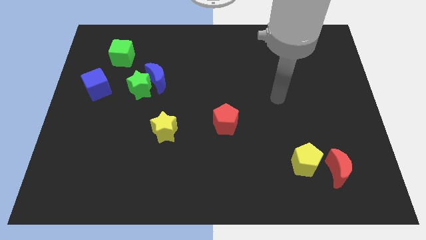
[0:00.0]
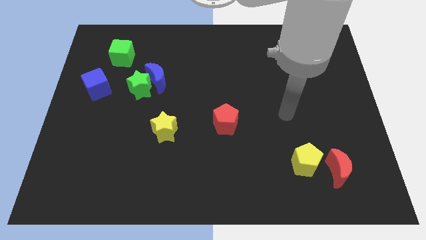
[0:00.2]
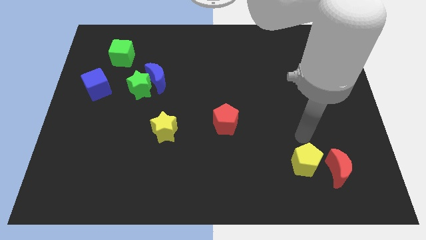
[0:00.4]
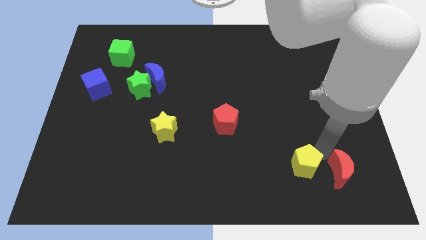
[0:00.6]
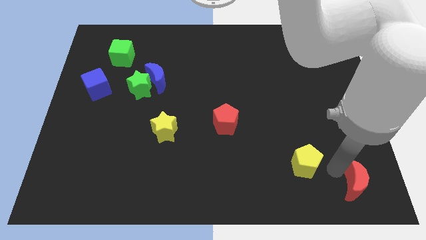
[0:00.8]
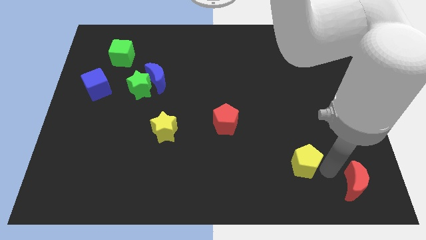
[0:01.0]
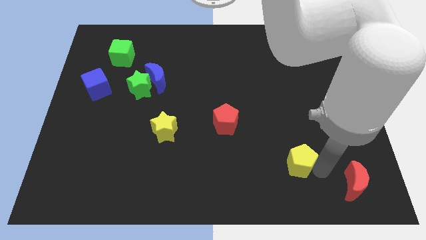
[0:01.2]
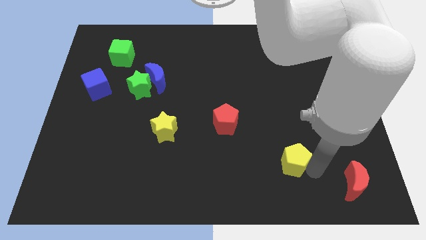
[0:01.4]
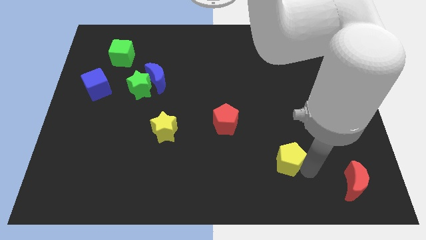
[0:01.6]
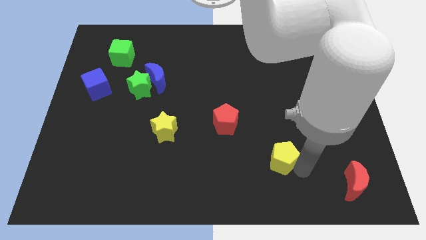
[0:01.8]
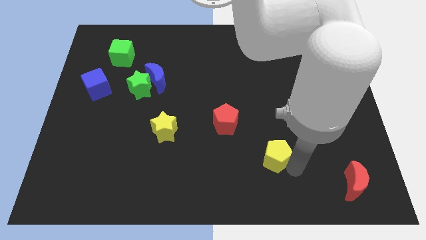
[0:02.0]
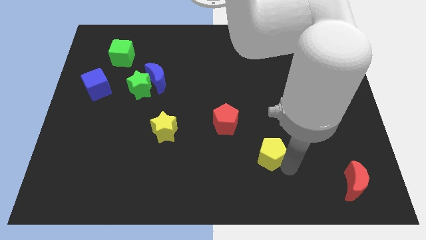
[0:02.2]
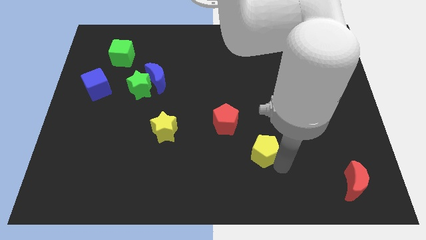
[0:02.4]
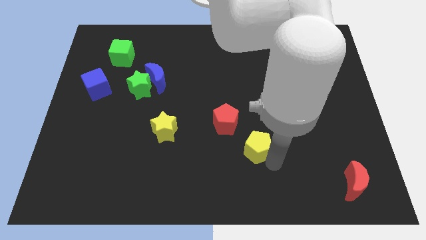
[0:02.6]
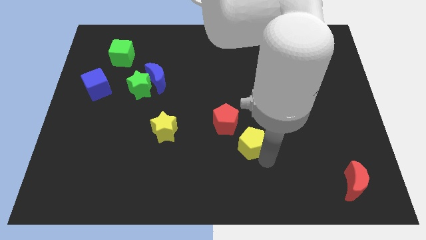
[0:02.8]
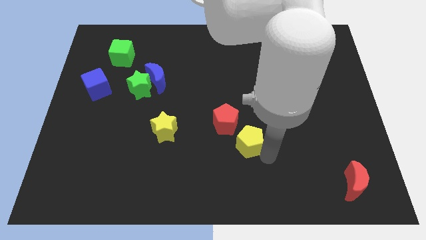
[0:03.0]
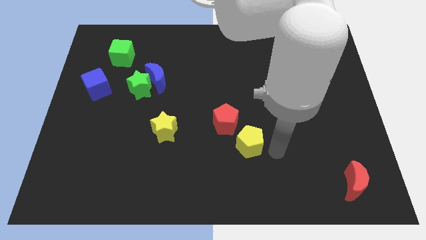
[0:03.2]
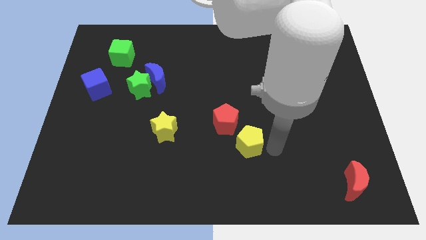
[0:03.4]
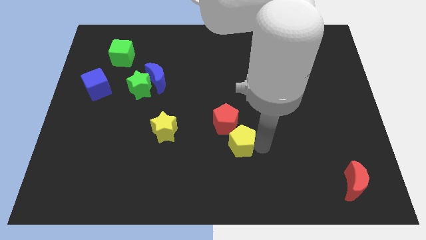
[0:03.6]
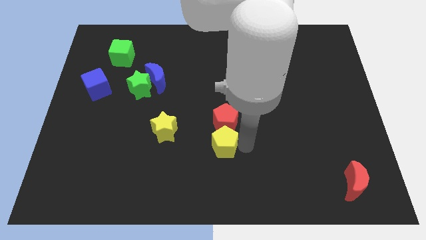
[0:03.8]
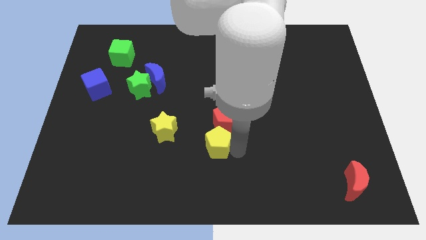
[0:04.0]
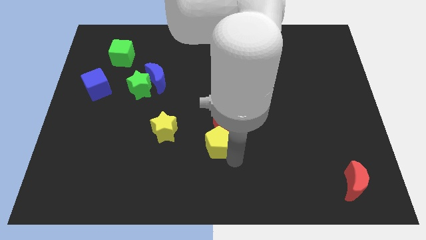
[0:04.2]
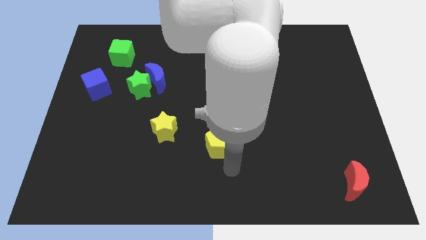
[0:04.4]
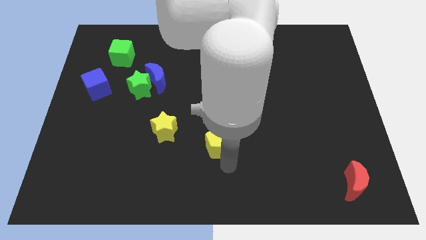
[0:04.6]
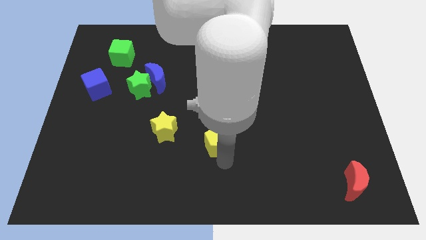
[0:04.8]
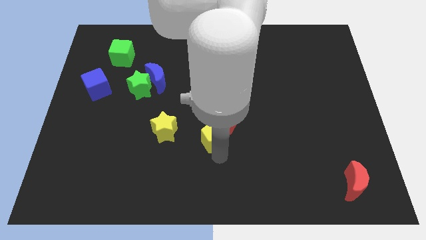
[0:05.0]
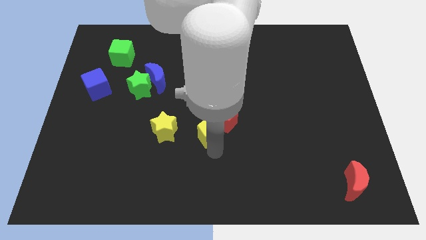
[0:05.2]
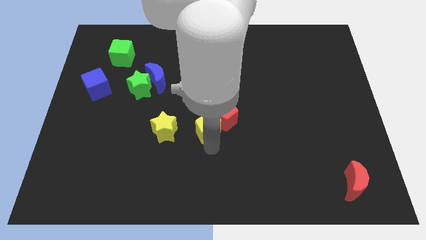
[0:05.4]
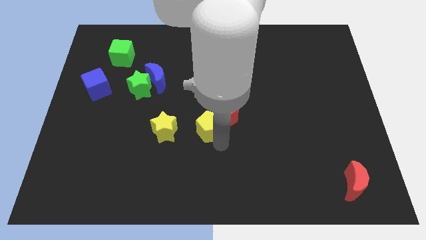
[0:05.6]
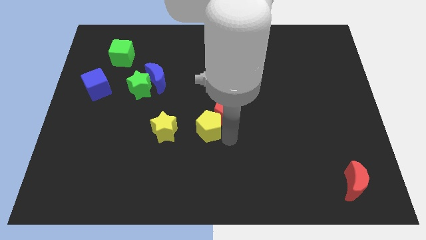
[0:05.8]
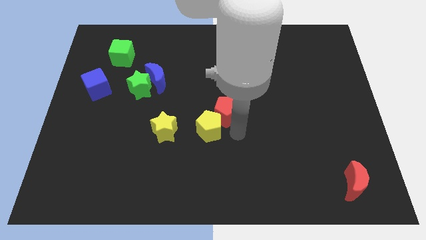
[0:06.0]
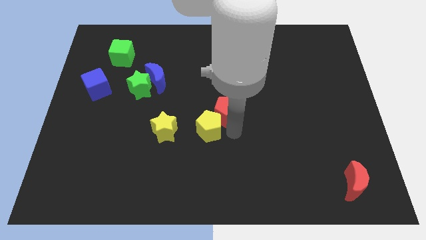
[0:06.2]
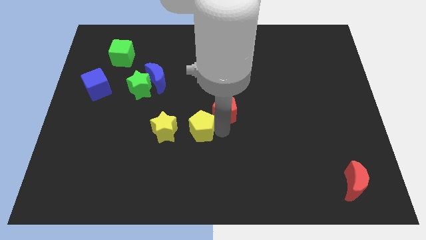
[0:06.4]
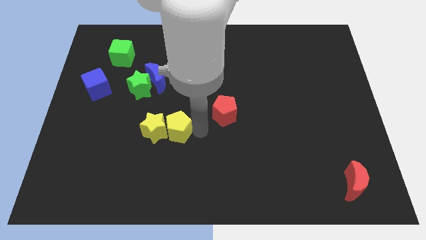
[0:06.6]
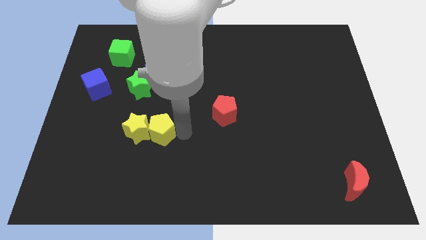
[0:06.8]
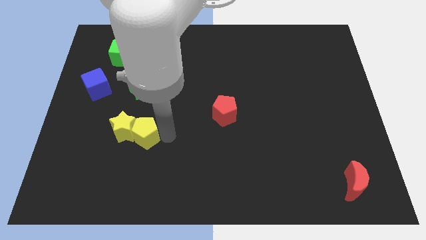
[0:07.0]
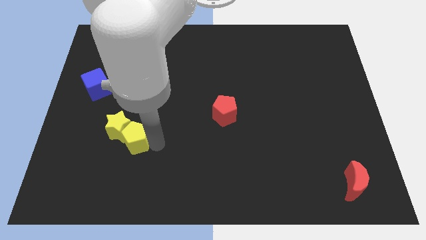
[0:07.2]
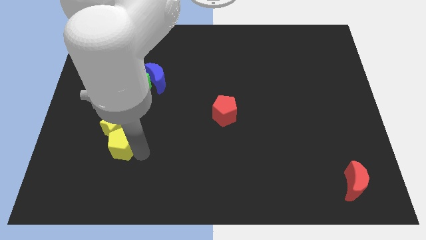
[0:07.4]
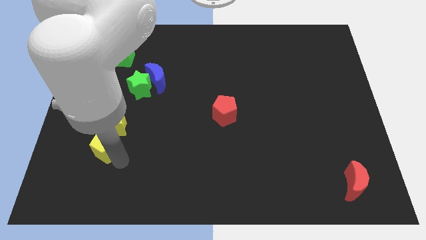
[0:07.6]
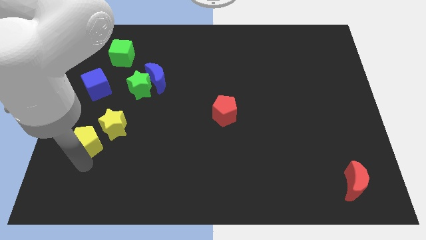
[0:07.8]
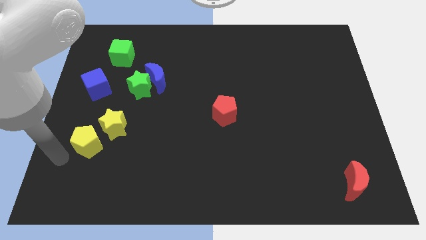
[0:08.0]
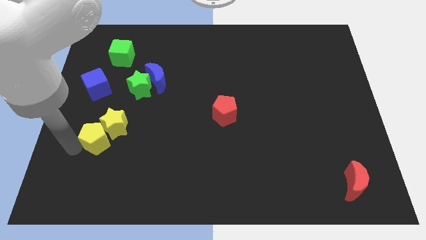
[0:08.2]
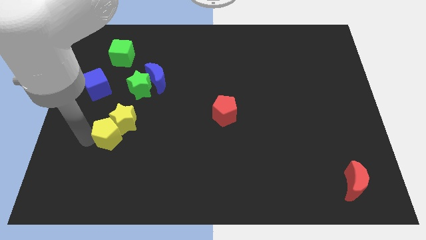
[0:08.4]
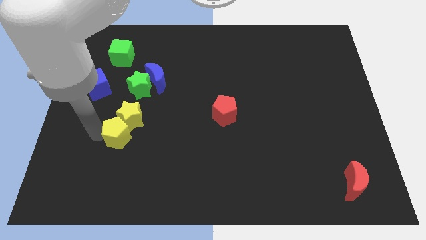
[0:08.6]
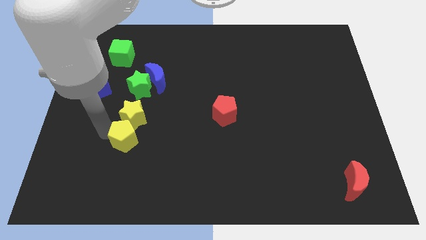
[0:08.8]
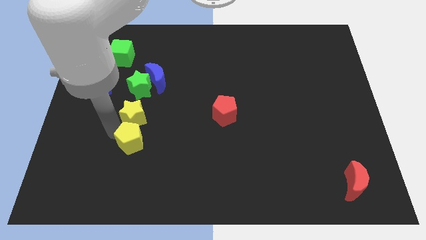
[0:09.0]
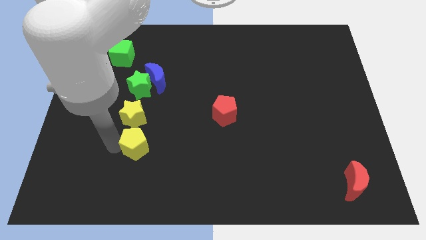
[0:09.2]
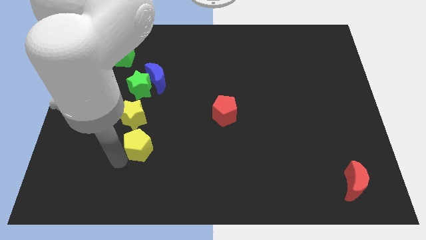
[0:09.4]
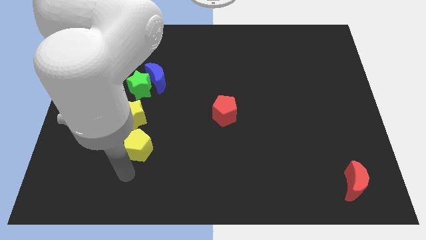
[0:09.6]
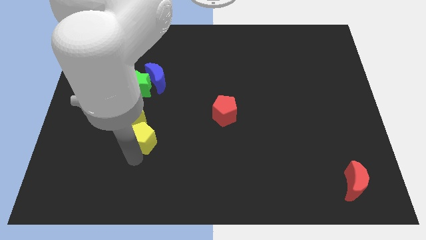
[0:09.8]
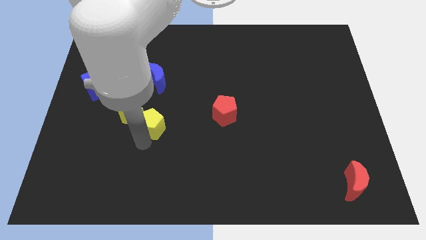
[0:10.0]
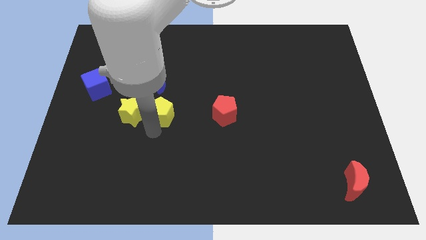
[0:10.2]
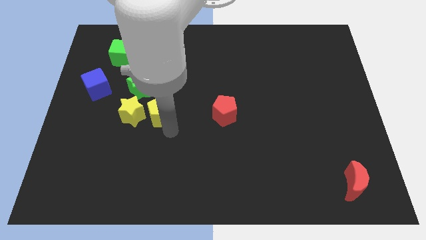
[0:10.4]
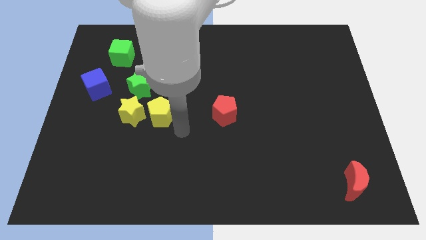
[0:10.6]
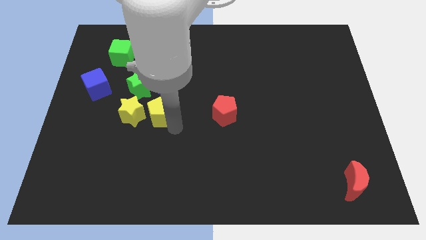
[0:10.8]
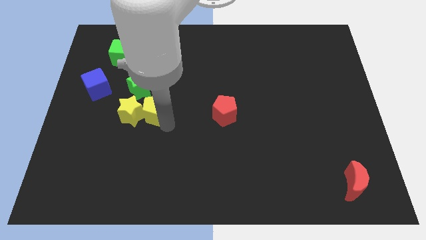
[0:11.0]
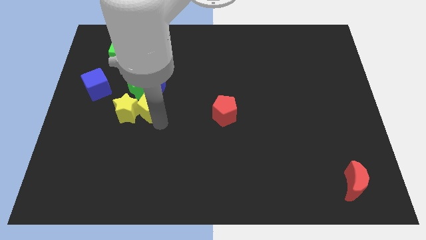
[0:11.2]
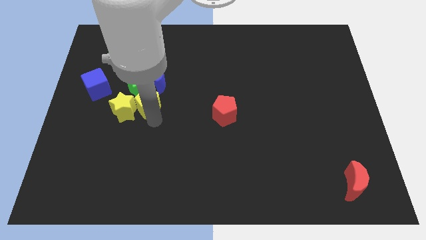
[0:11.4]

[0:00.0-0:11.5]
move the yellow pentagon to the bottom left of the blue moon

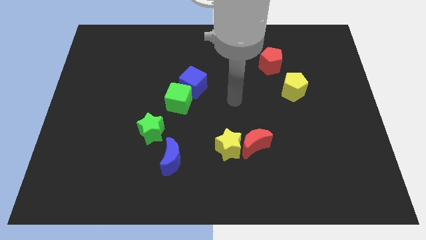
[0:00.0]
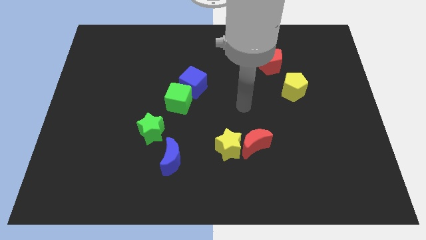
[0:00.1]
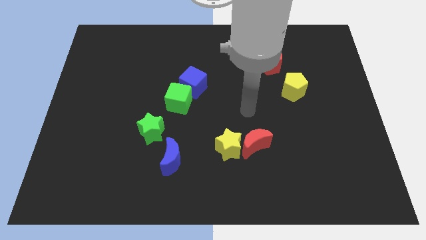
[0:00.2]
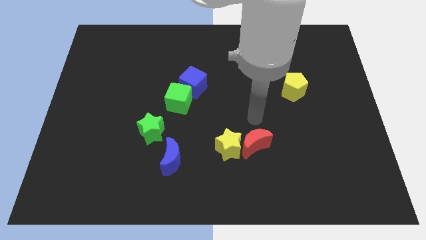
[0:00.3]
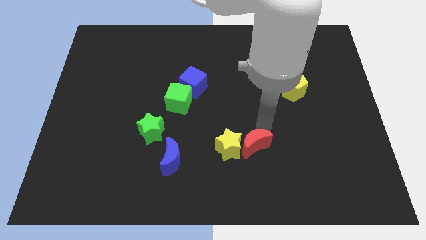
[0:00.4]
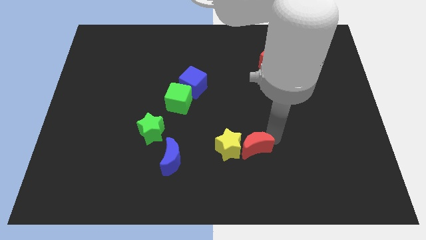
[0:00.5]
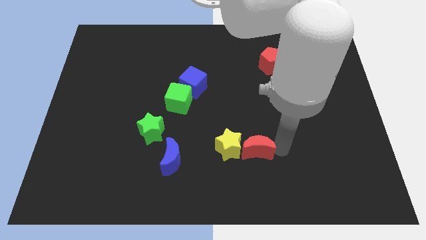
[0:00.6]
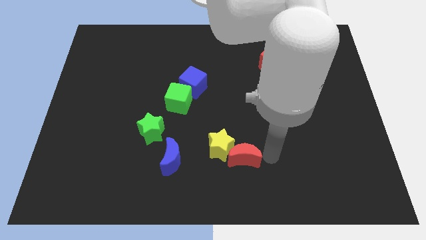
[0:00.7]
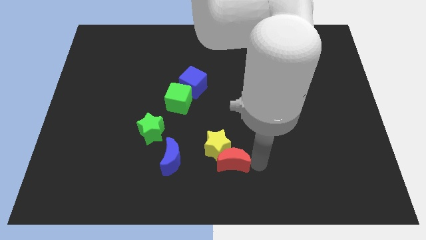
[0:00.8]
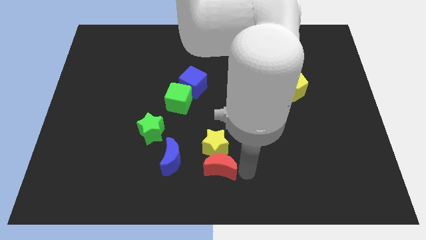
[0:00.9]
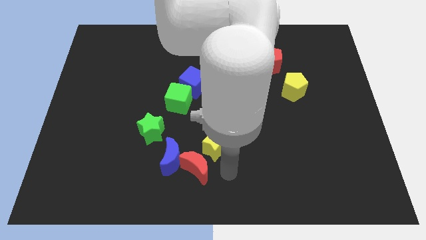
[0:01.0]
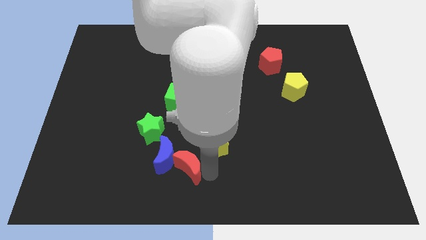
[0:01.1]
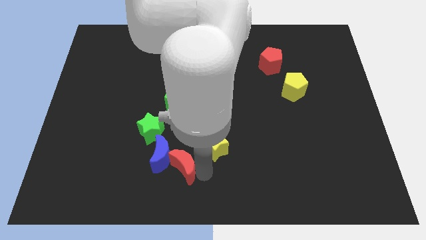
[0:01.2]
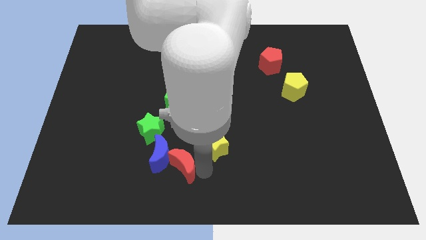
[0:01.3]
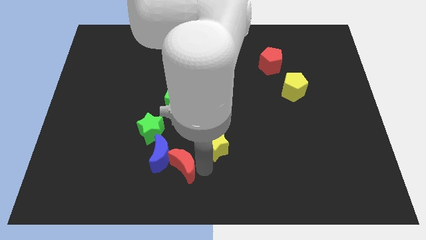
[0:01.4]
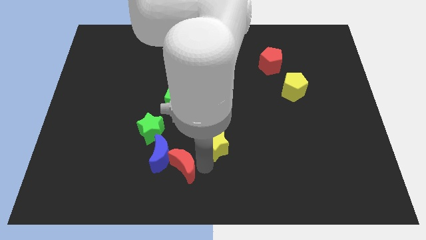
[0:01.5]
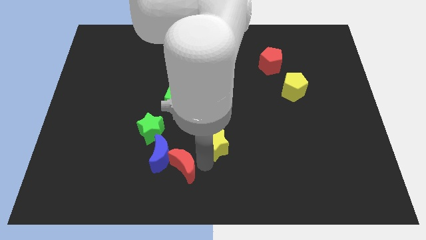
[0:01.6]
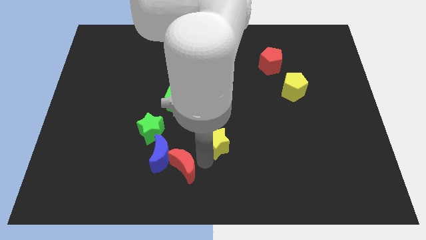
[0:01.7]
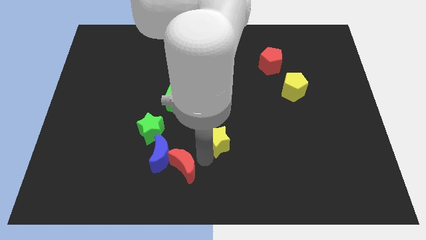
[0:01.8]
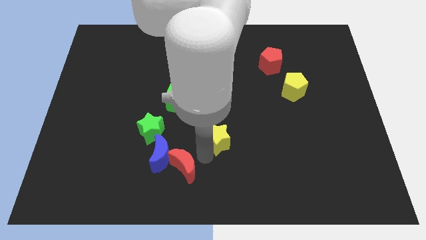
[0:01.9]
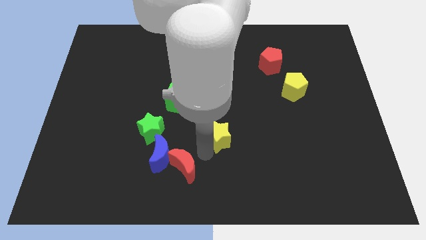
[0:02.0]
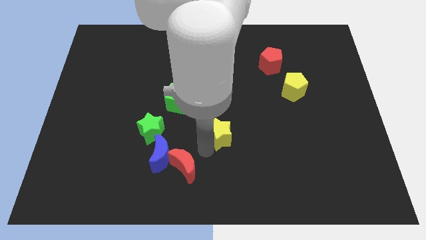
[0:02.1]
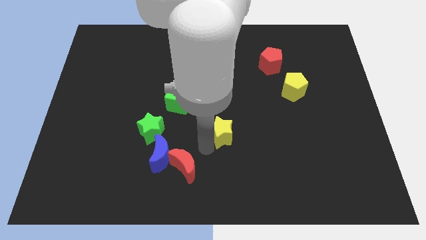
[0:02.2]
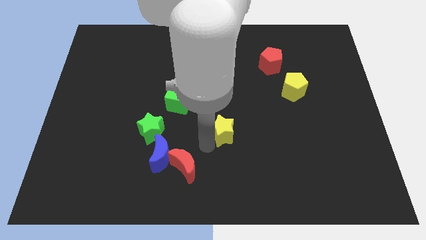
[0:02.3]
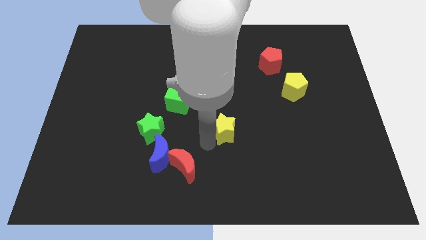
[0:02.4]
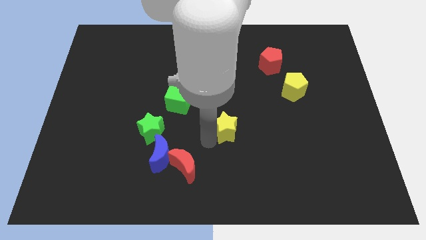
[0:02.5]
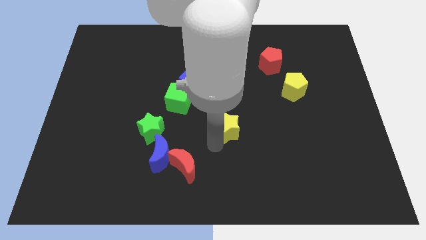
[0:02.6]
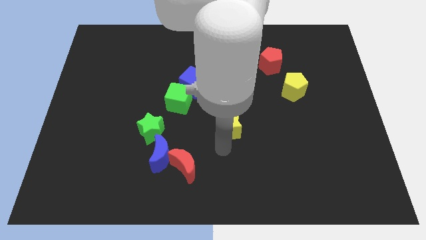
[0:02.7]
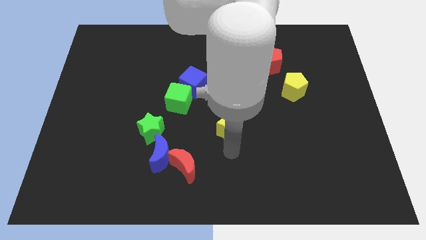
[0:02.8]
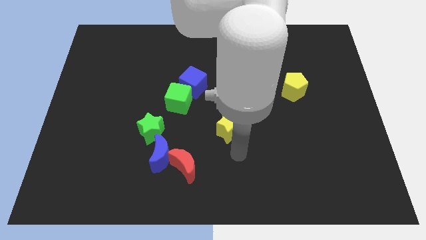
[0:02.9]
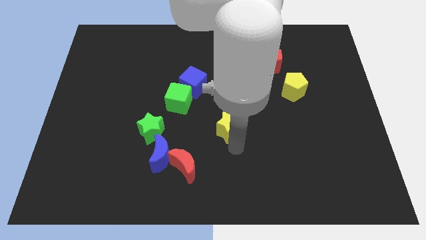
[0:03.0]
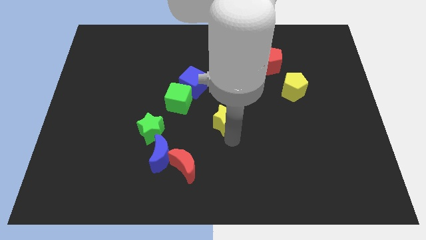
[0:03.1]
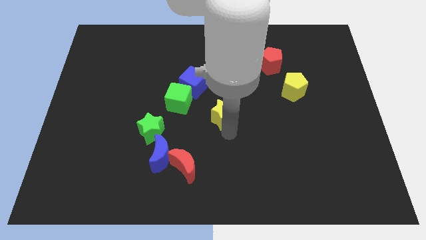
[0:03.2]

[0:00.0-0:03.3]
put the yellow star to the bottom right side of the blue cube
